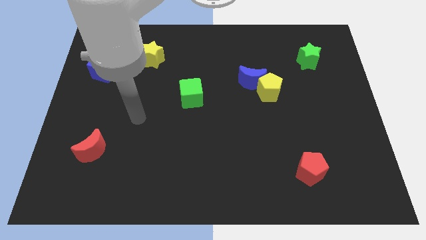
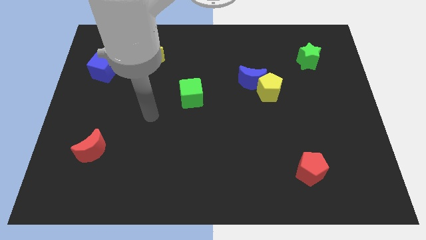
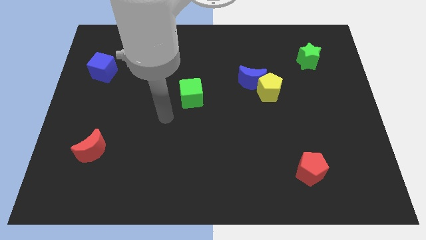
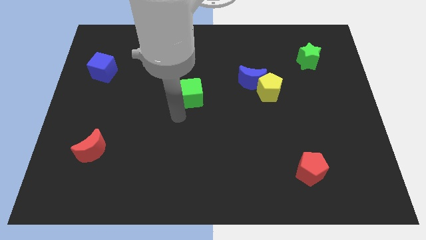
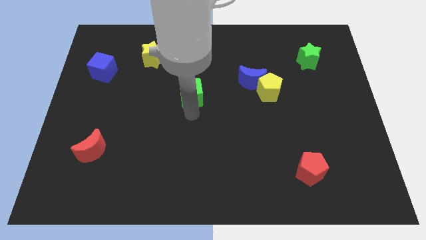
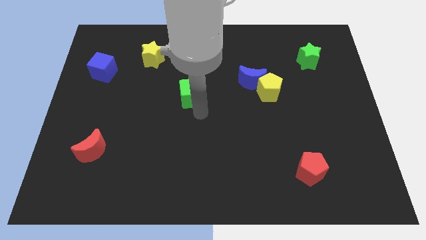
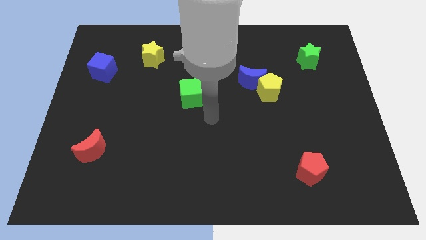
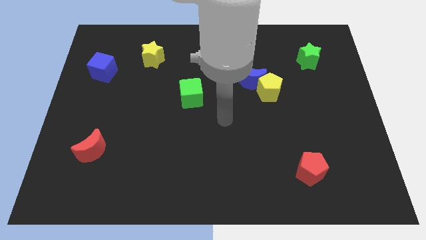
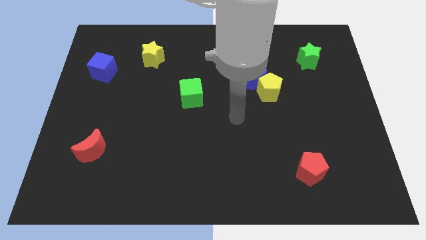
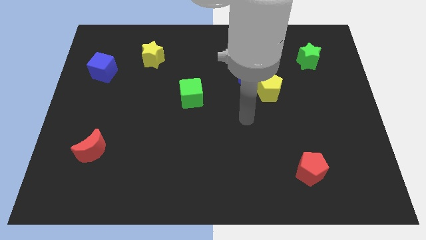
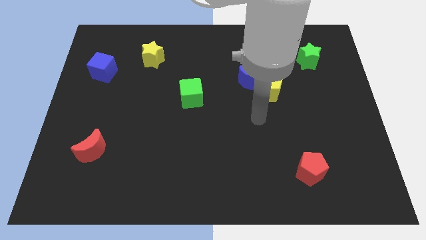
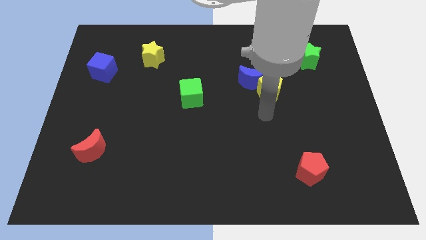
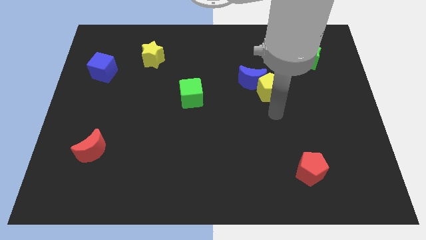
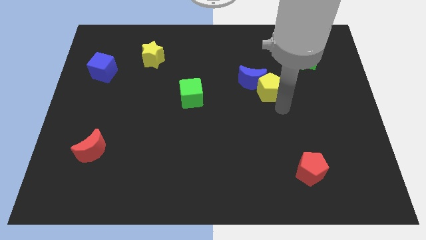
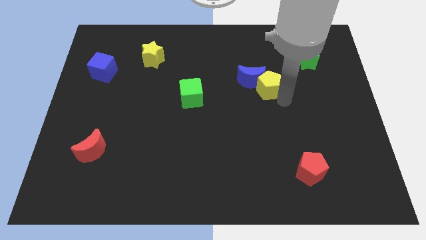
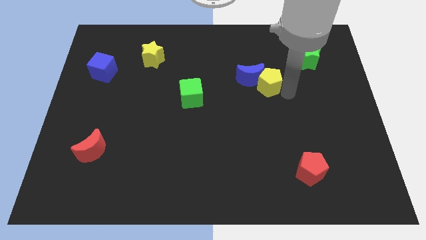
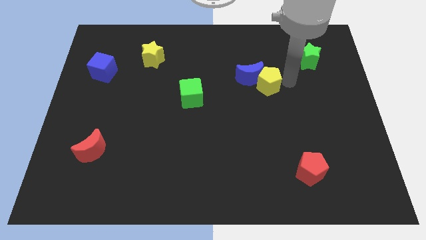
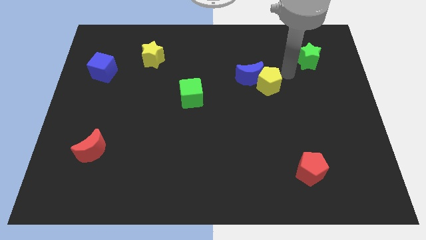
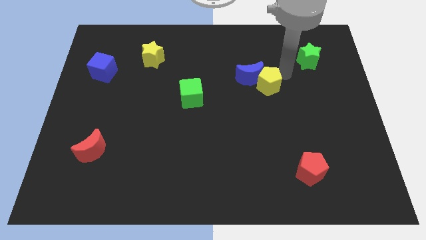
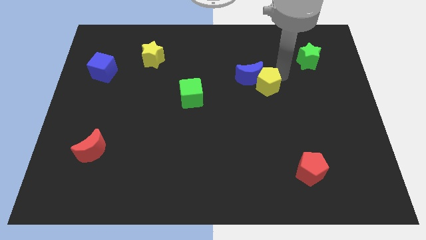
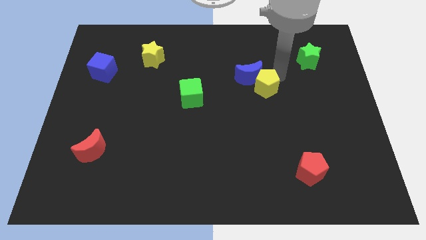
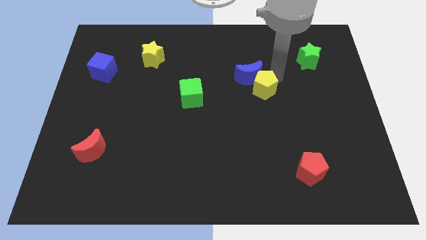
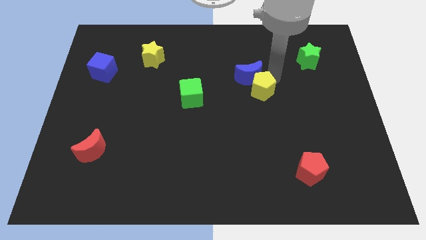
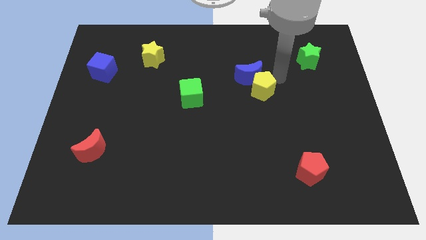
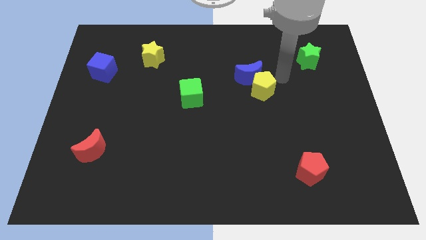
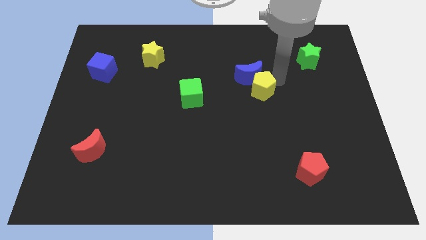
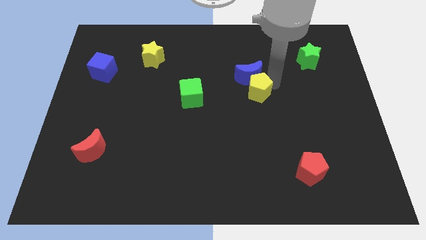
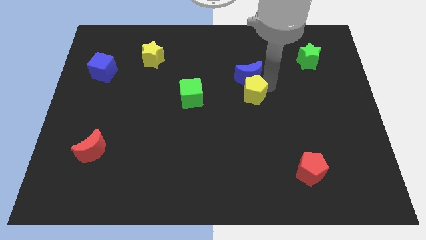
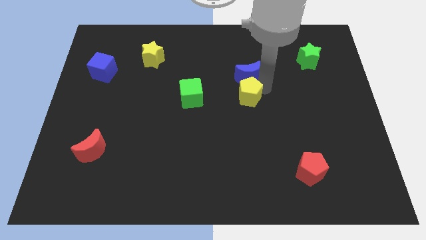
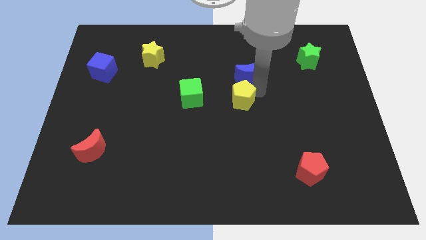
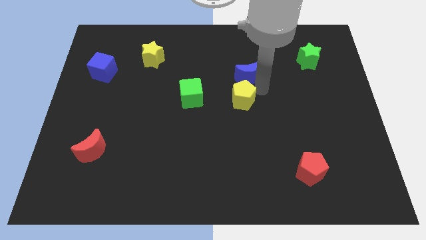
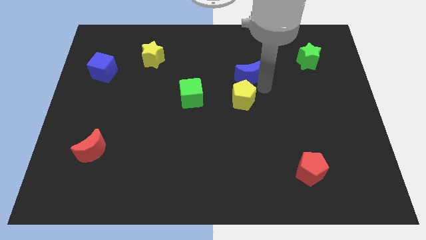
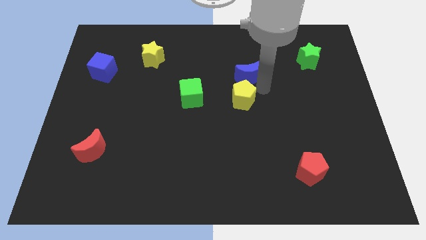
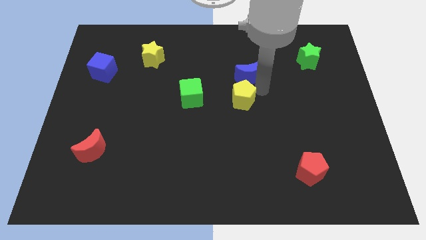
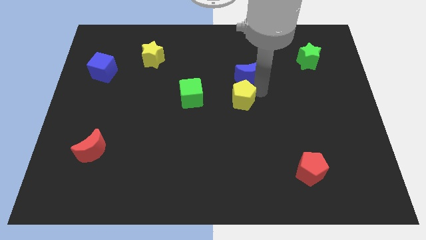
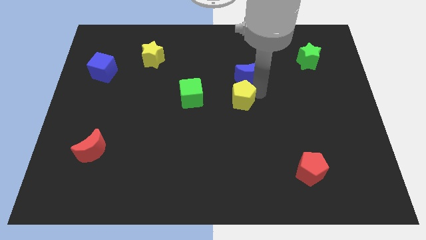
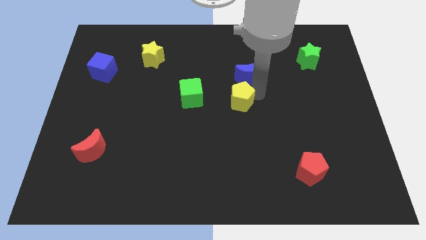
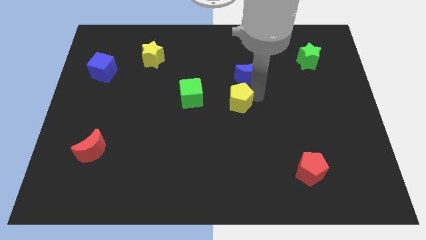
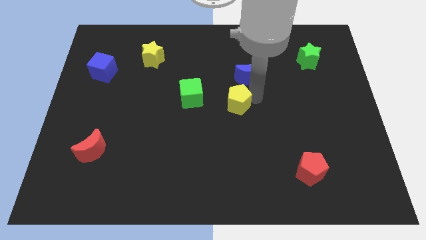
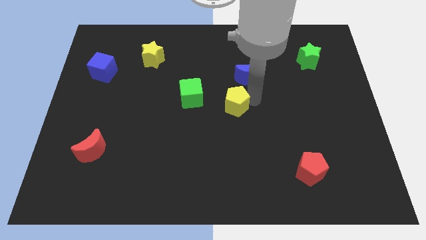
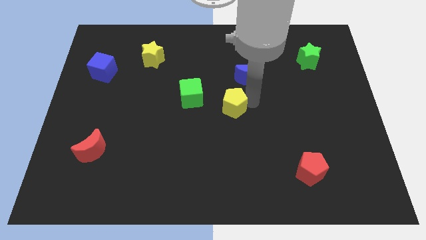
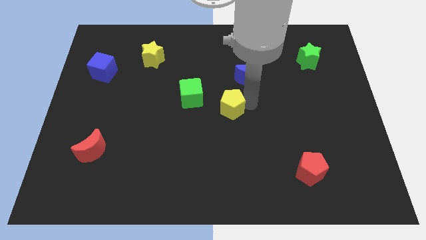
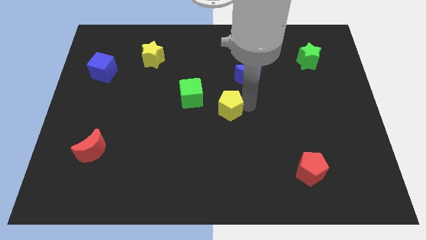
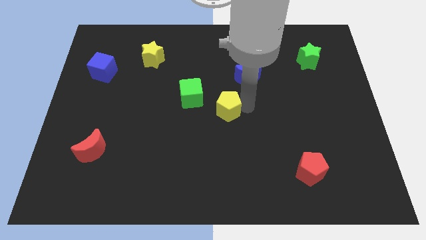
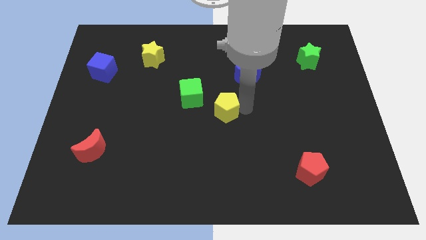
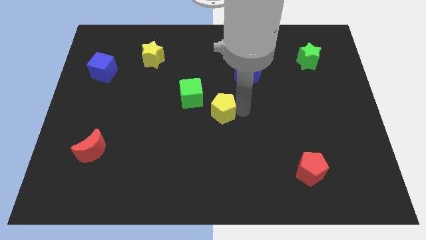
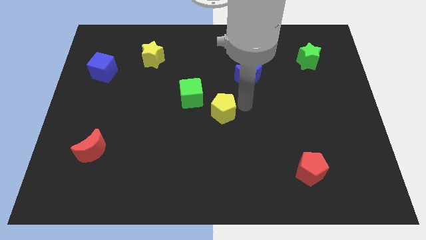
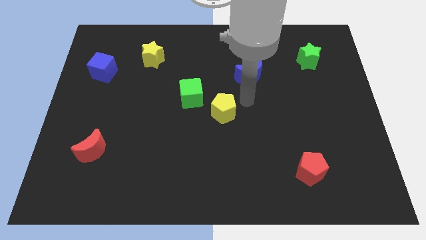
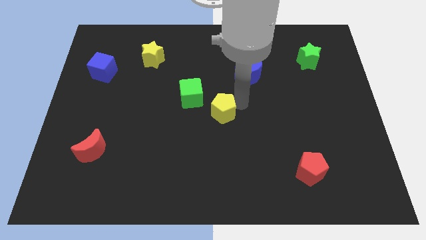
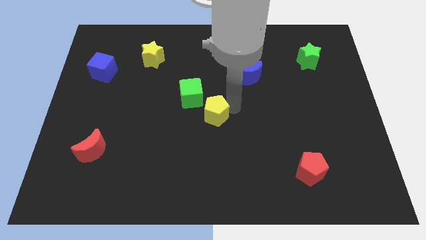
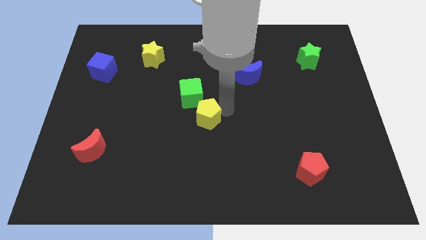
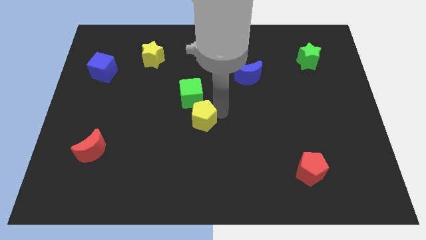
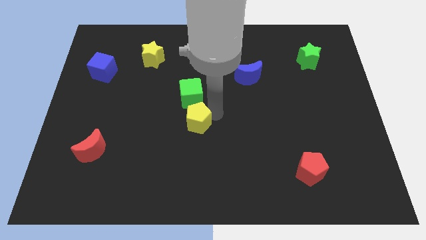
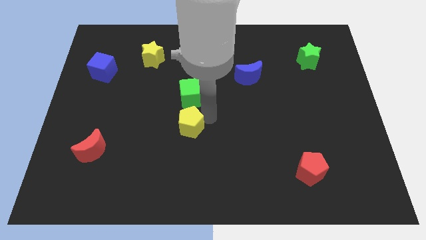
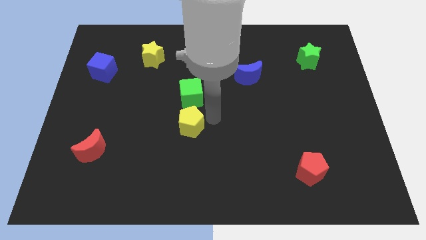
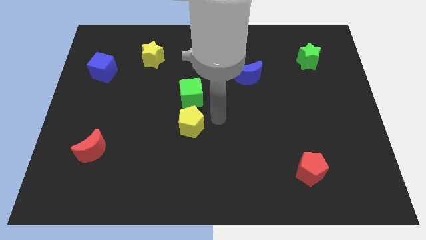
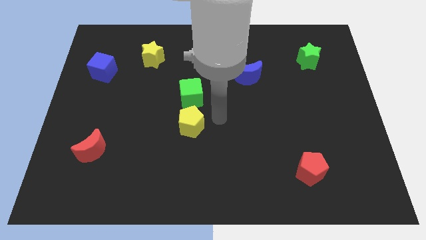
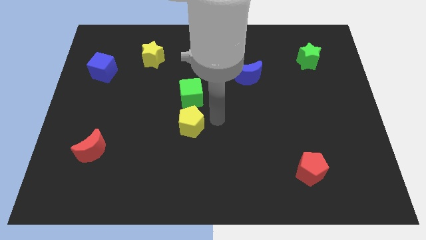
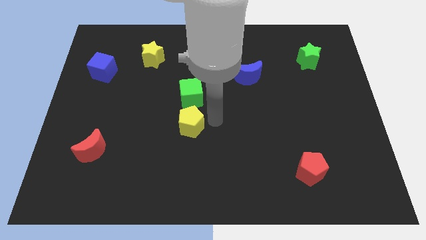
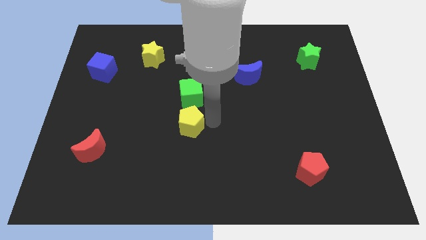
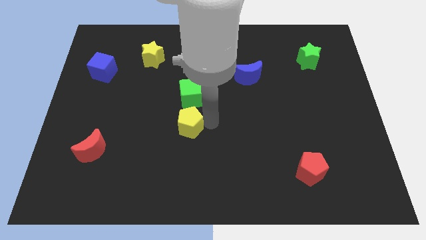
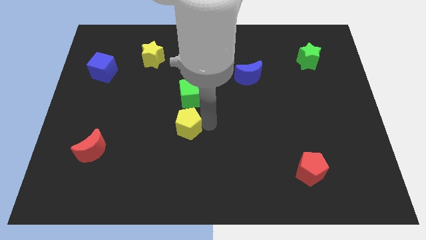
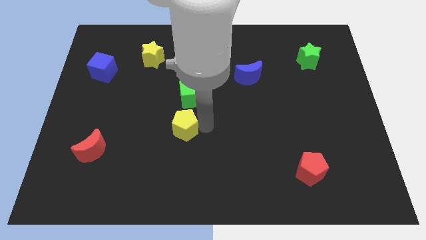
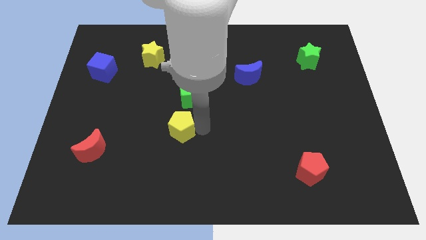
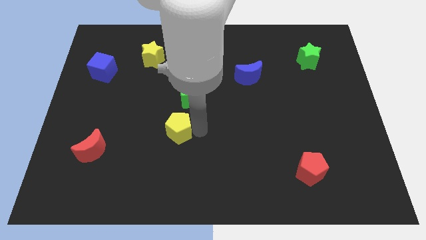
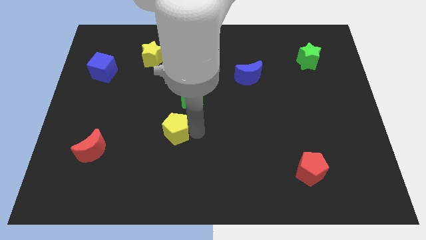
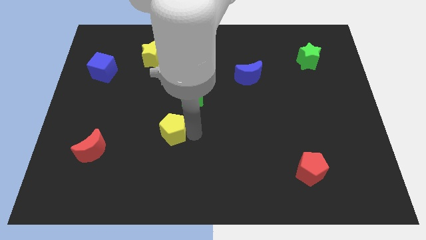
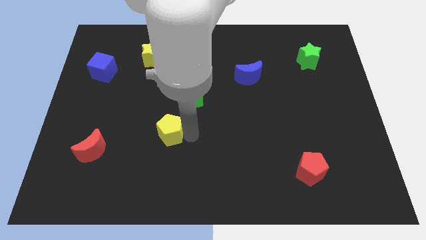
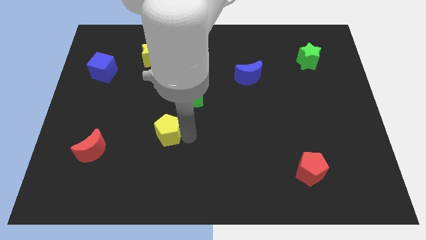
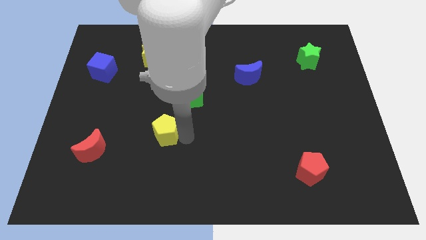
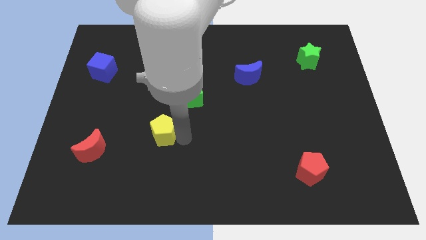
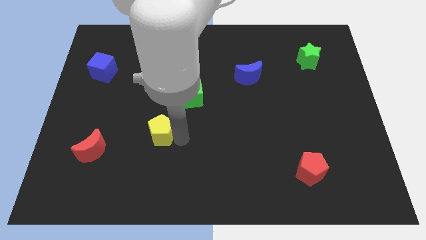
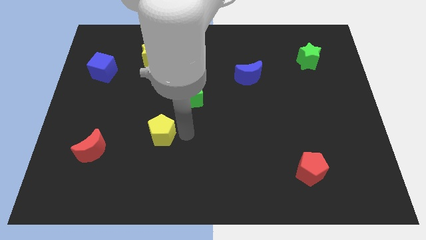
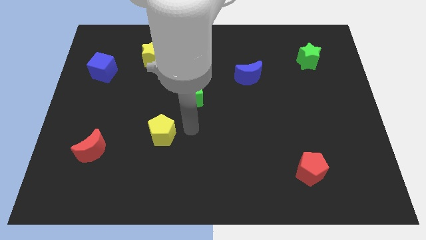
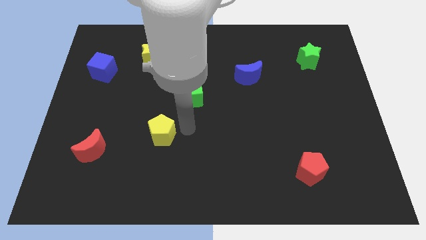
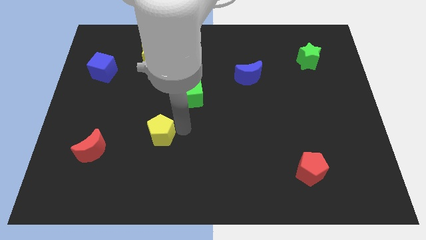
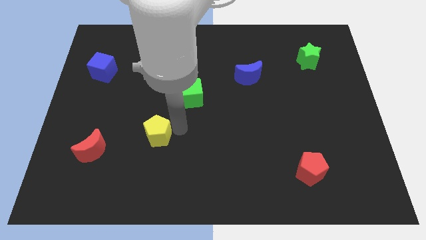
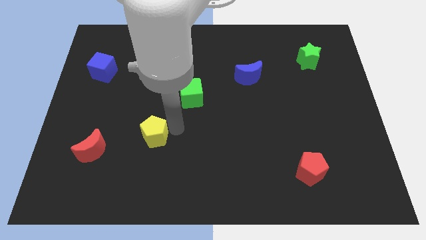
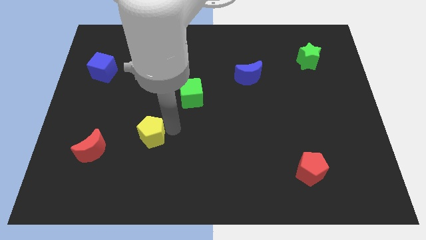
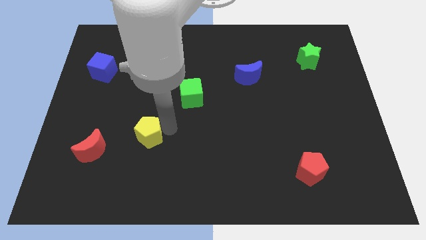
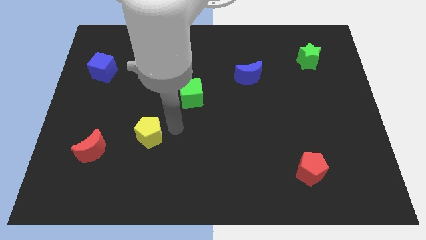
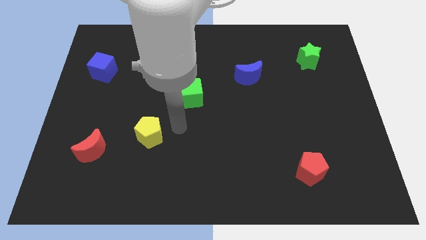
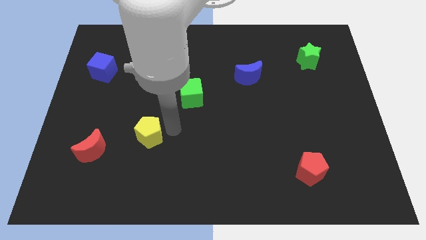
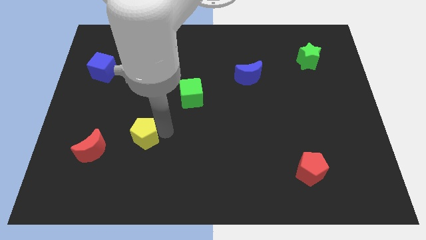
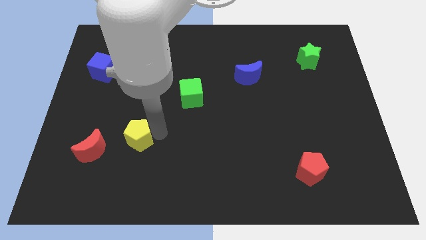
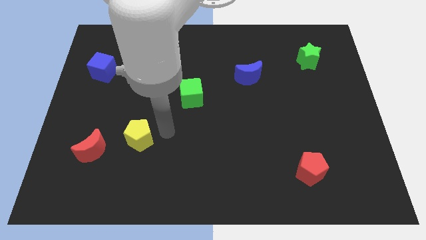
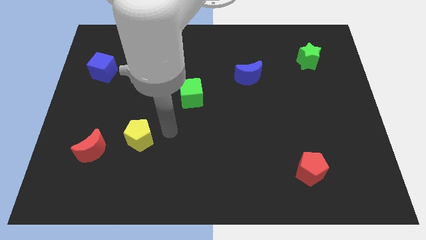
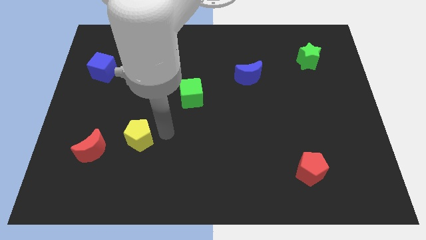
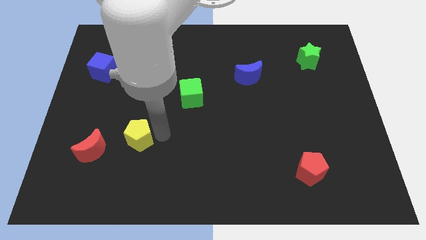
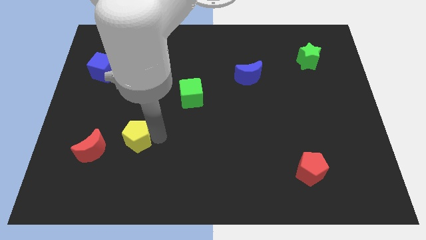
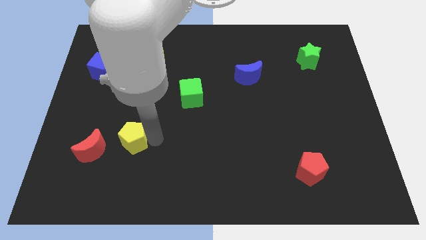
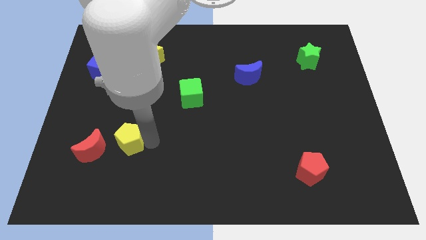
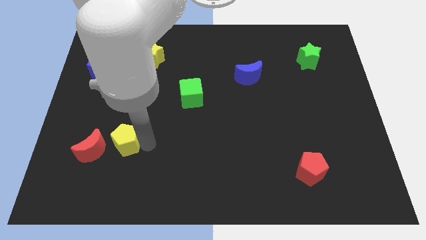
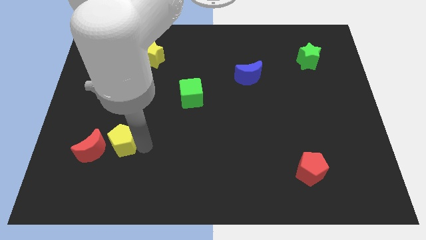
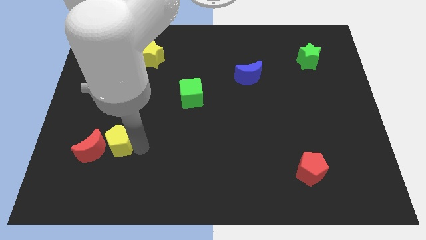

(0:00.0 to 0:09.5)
push the yellow pentagon towards the red moon
